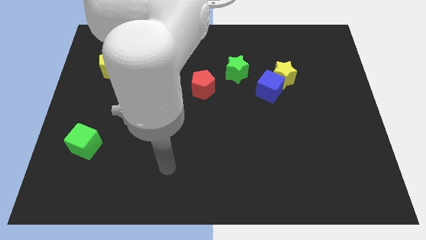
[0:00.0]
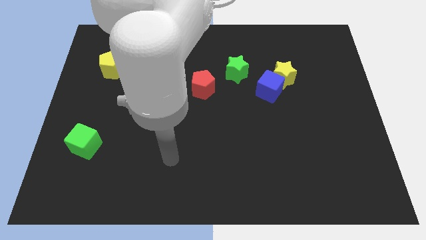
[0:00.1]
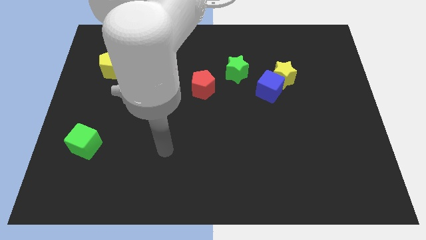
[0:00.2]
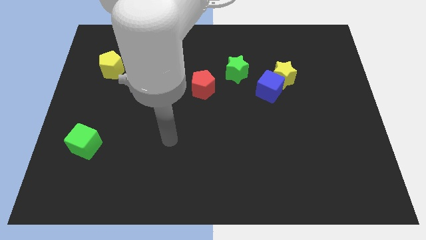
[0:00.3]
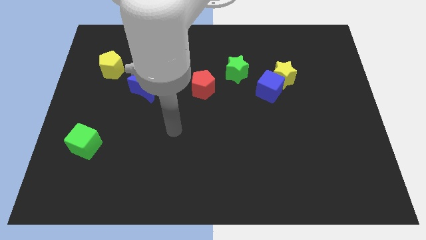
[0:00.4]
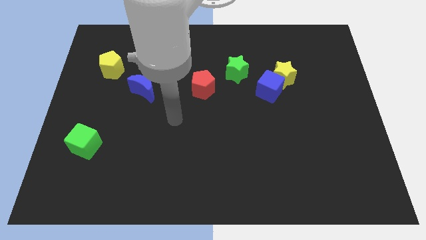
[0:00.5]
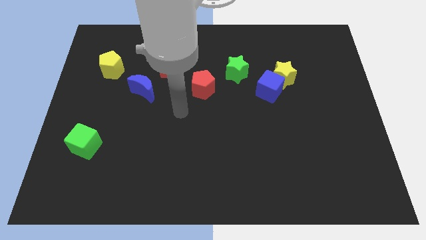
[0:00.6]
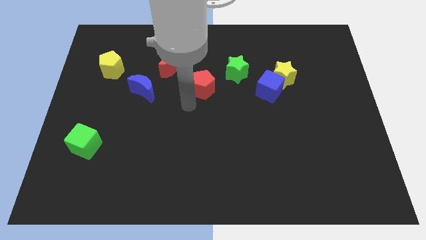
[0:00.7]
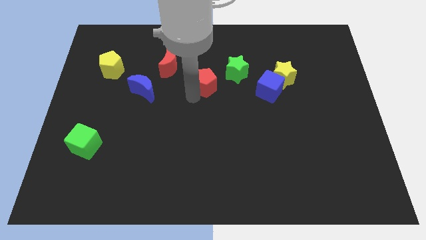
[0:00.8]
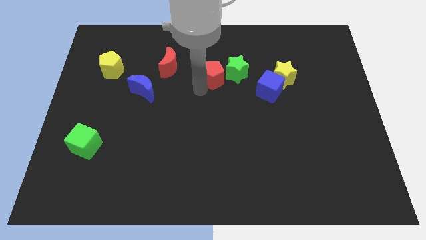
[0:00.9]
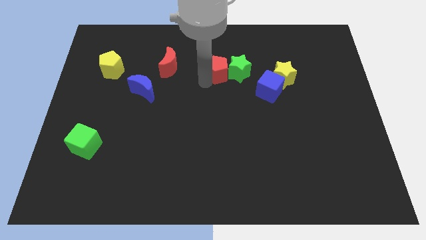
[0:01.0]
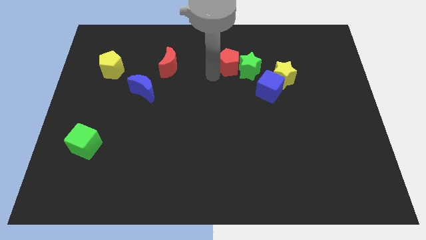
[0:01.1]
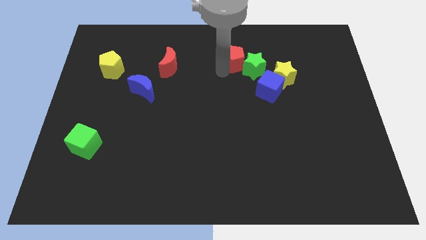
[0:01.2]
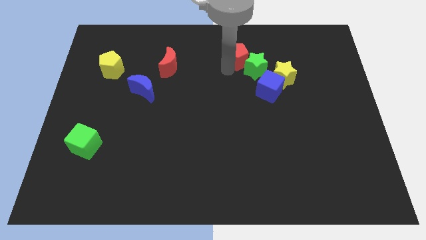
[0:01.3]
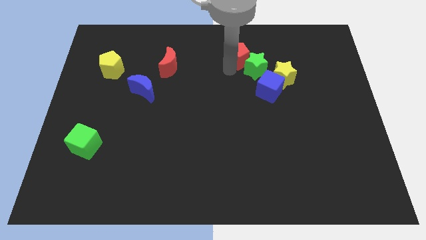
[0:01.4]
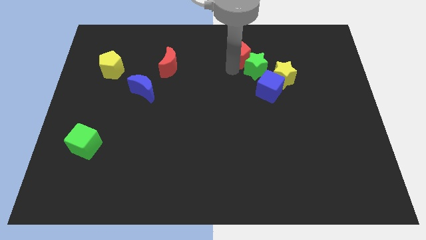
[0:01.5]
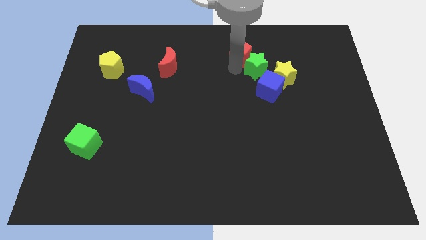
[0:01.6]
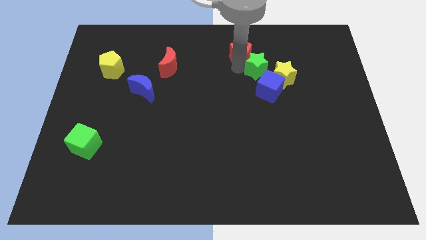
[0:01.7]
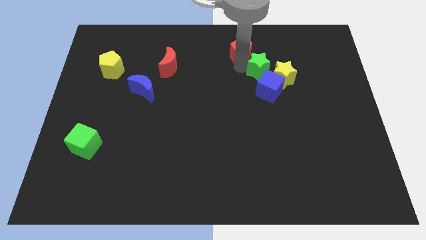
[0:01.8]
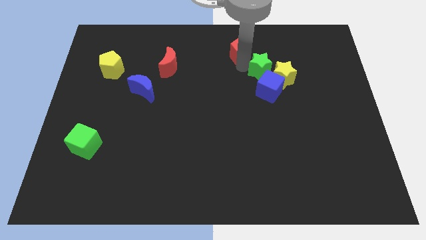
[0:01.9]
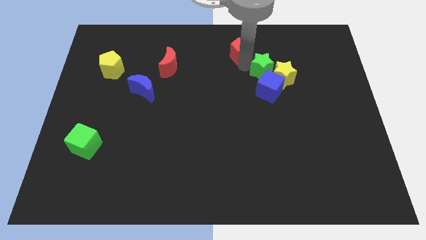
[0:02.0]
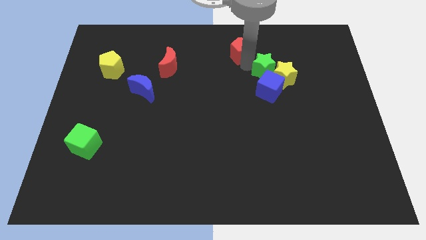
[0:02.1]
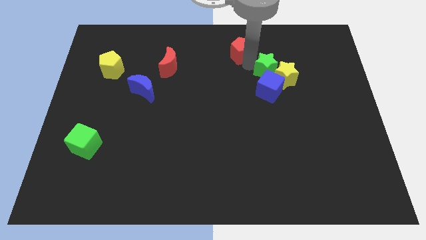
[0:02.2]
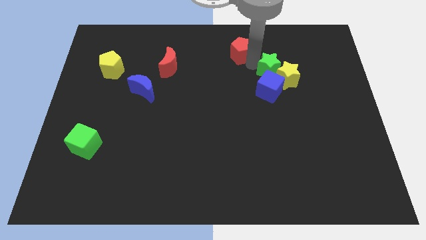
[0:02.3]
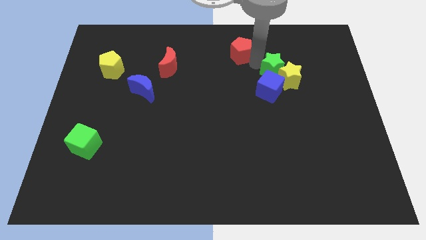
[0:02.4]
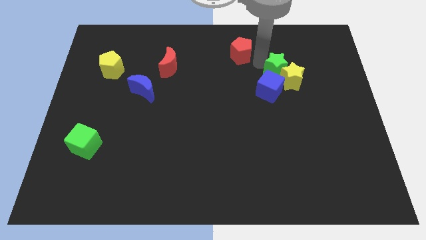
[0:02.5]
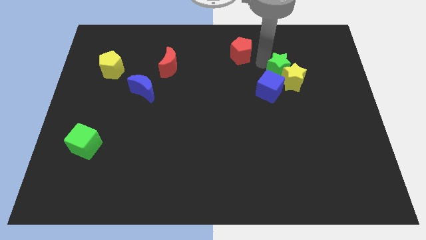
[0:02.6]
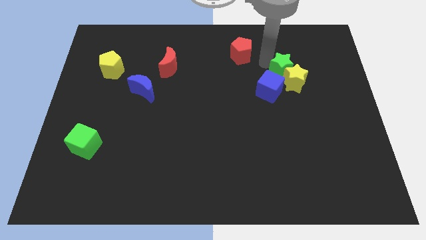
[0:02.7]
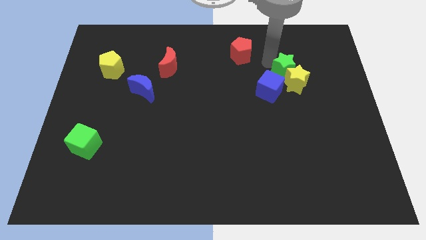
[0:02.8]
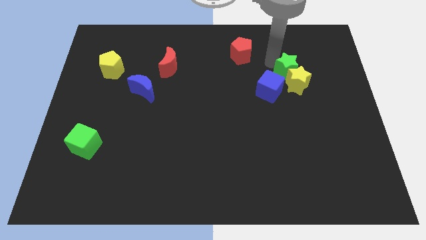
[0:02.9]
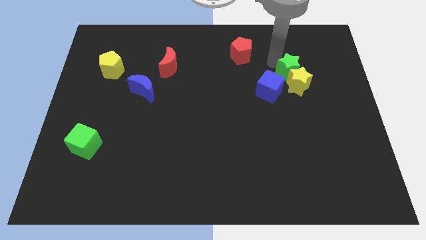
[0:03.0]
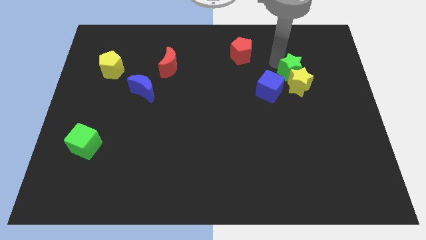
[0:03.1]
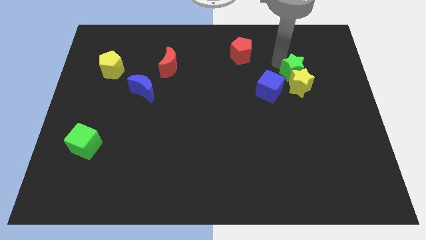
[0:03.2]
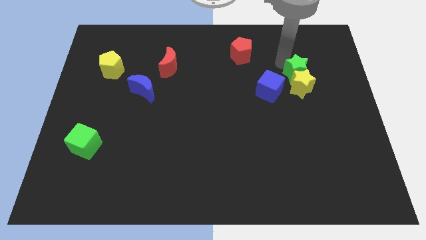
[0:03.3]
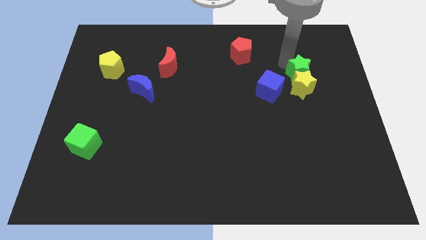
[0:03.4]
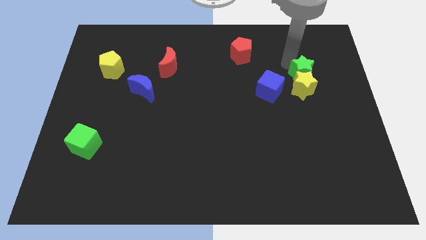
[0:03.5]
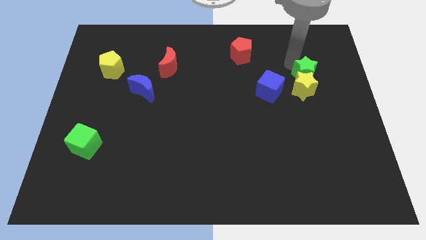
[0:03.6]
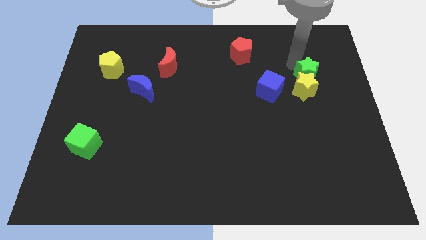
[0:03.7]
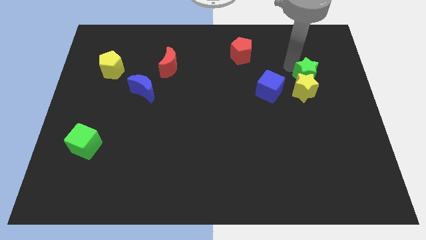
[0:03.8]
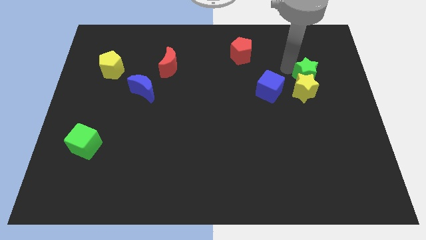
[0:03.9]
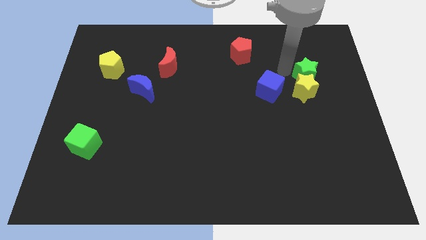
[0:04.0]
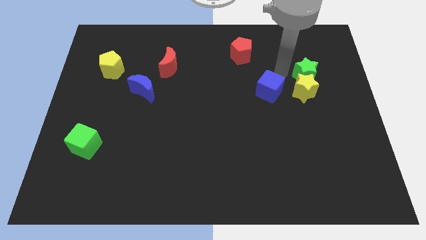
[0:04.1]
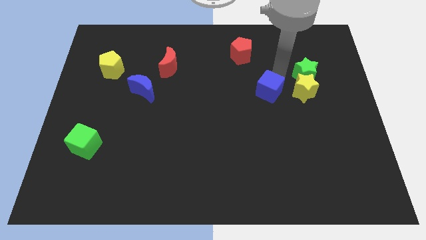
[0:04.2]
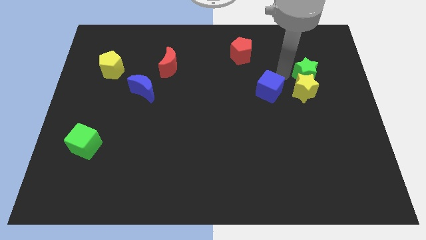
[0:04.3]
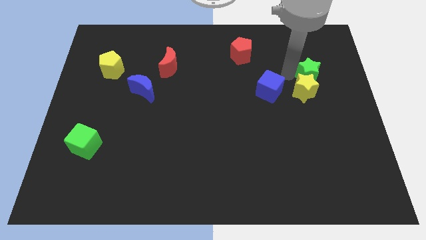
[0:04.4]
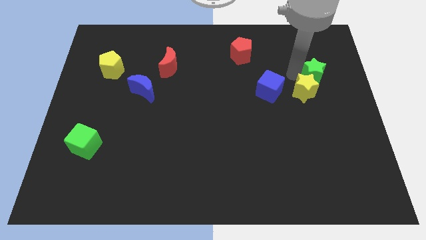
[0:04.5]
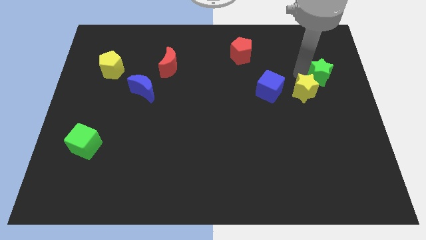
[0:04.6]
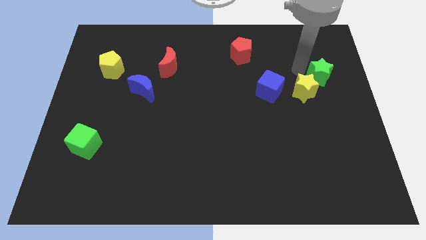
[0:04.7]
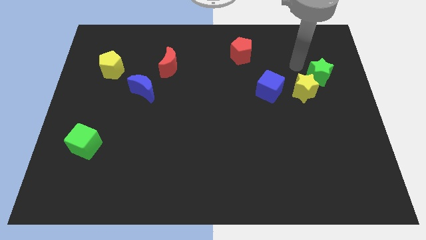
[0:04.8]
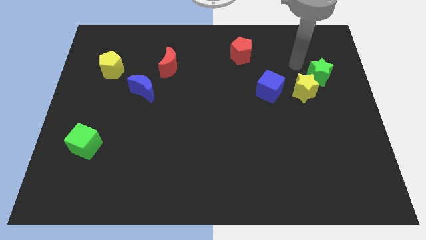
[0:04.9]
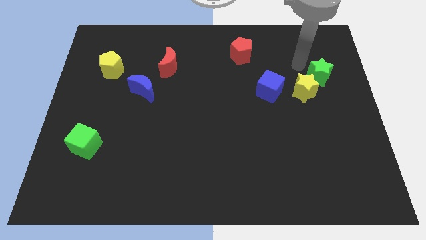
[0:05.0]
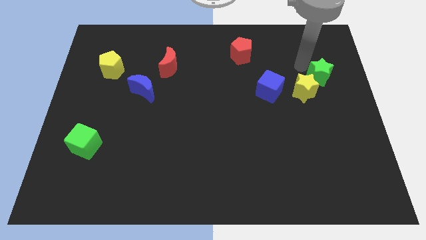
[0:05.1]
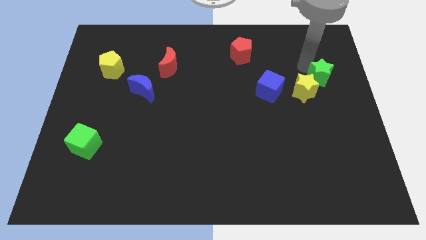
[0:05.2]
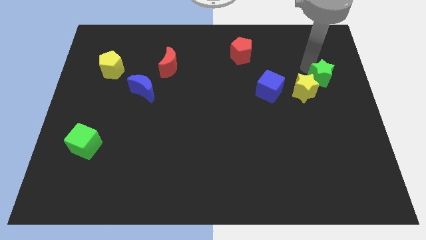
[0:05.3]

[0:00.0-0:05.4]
slide the green star to the right side of the board

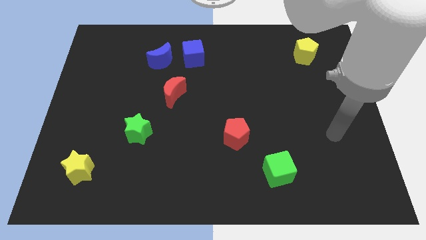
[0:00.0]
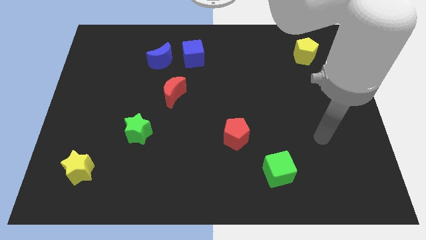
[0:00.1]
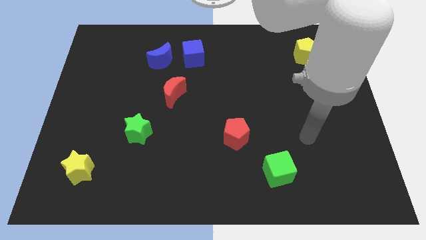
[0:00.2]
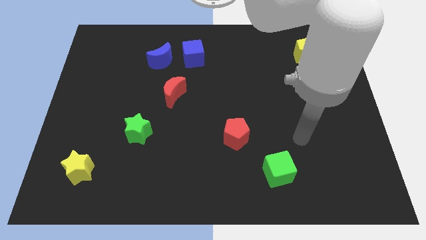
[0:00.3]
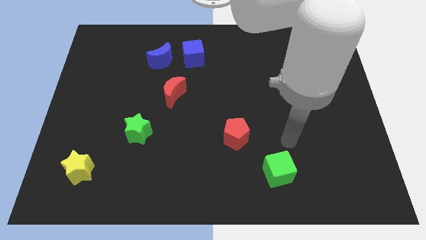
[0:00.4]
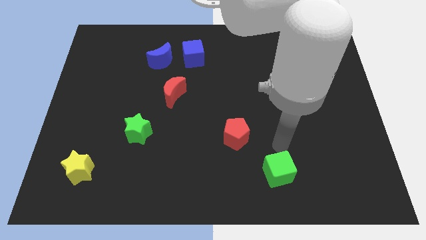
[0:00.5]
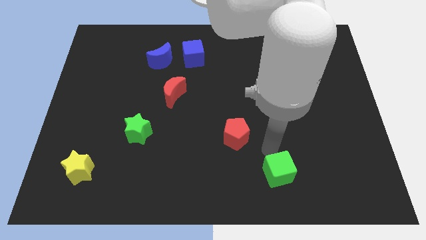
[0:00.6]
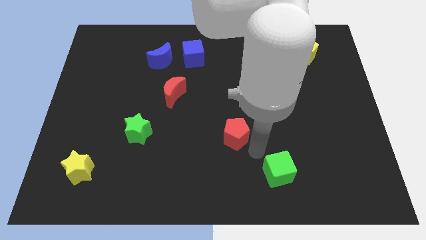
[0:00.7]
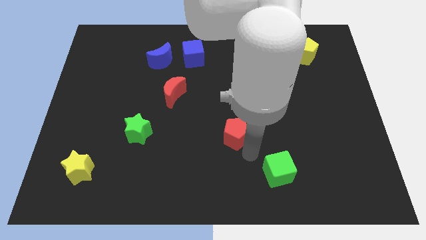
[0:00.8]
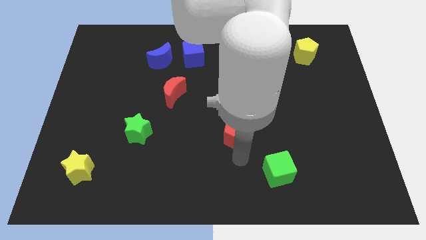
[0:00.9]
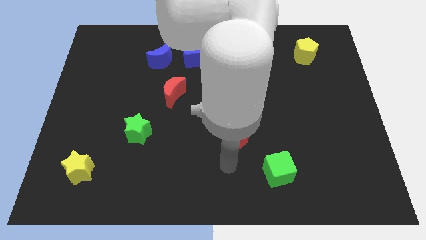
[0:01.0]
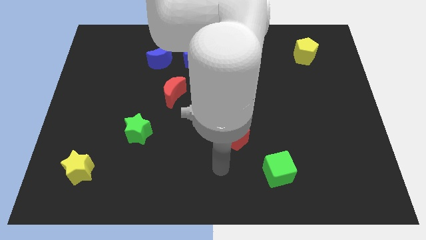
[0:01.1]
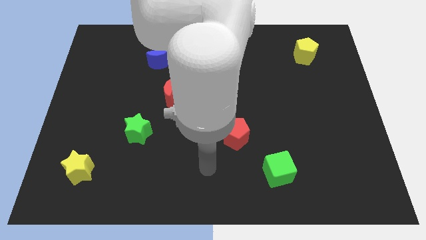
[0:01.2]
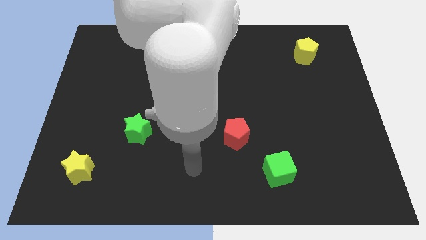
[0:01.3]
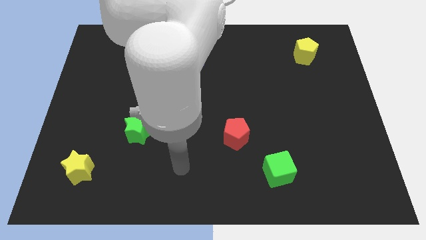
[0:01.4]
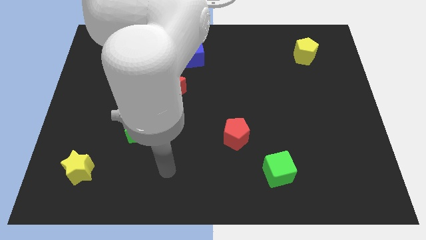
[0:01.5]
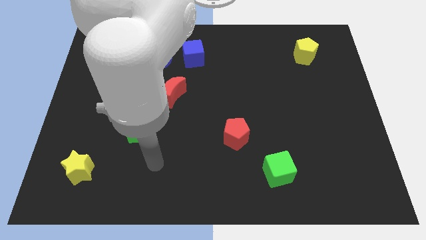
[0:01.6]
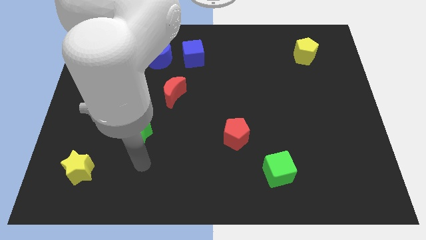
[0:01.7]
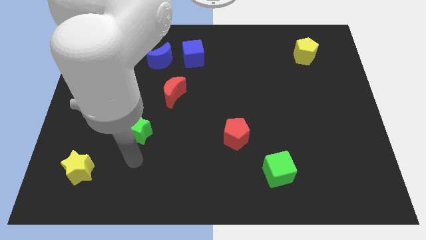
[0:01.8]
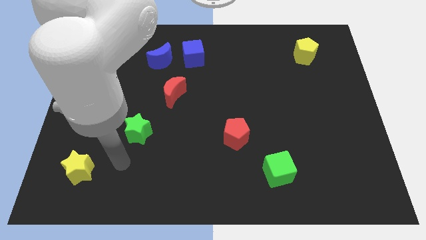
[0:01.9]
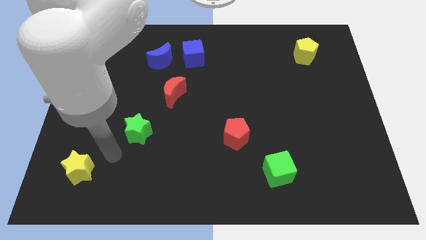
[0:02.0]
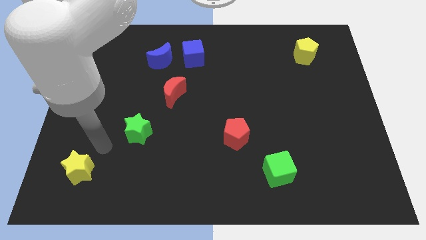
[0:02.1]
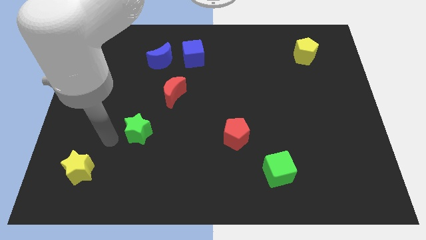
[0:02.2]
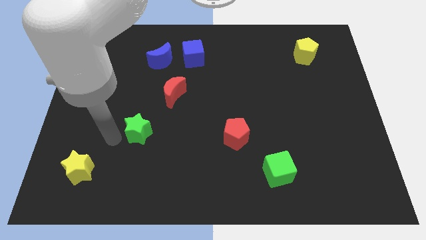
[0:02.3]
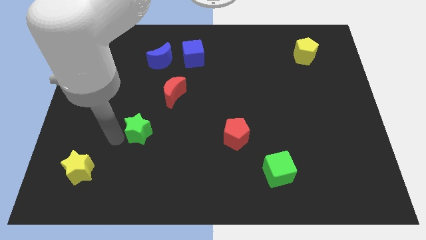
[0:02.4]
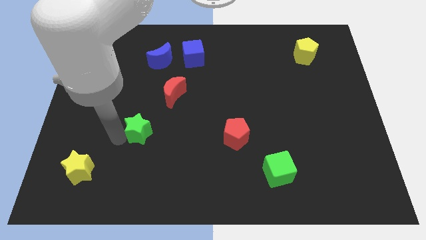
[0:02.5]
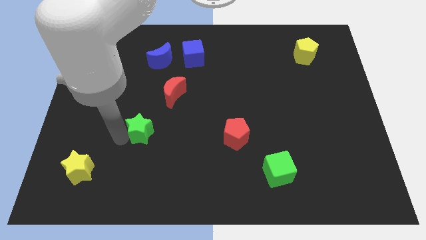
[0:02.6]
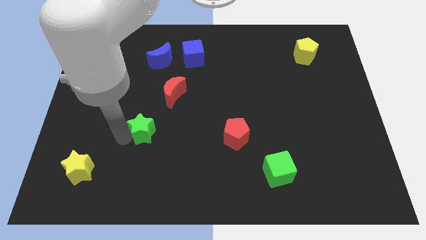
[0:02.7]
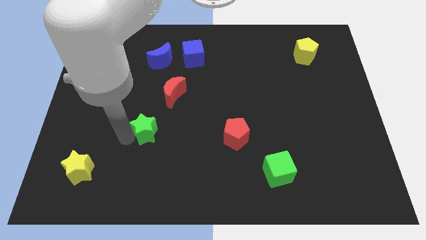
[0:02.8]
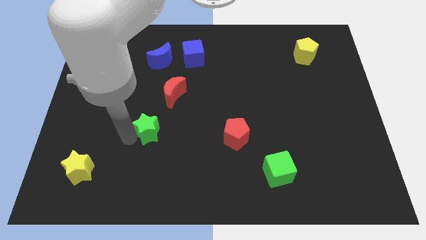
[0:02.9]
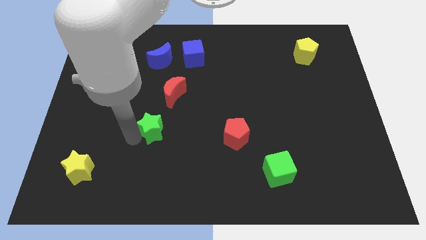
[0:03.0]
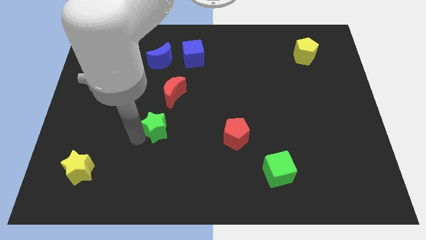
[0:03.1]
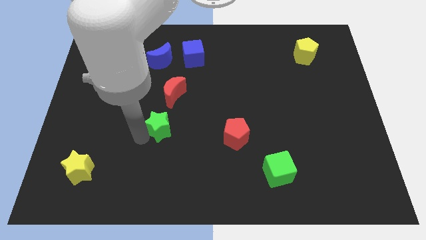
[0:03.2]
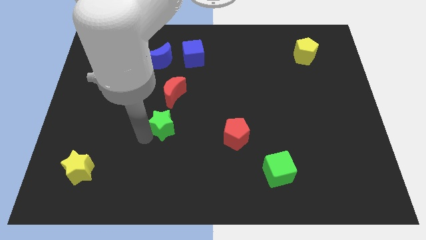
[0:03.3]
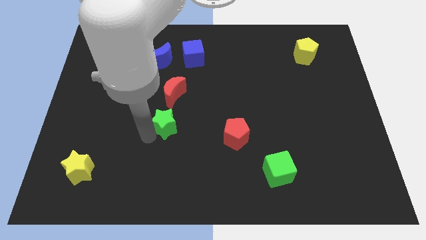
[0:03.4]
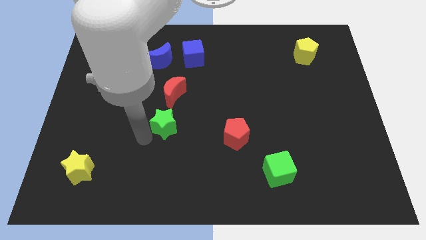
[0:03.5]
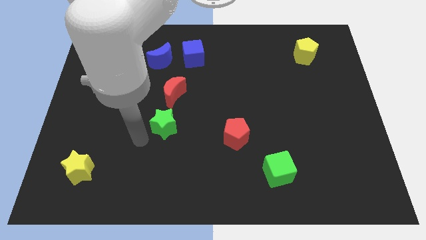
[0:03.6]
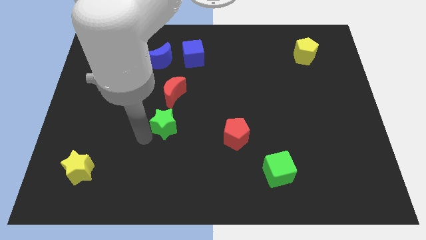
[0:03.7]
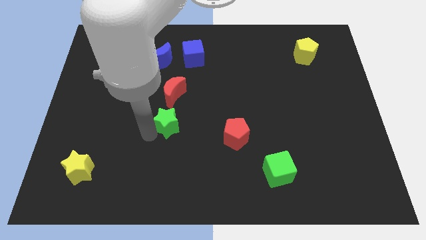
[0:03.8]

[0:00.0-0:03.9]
put the green star to the center
